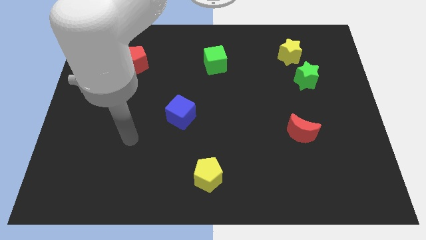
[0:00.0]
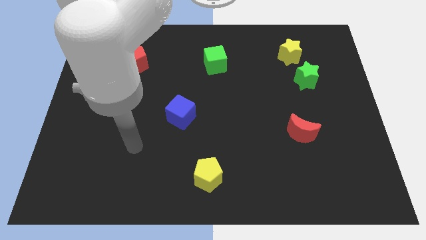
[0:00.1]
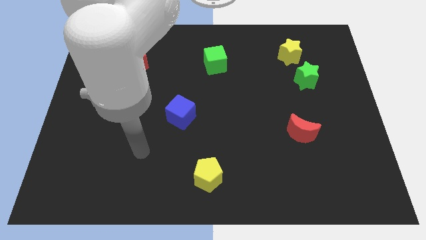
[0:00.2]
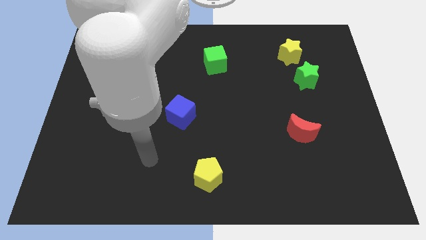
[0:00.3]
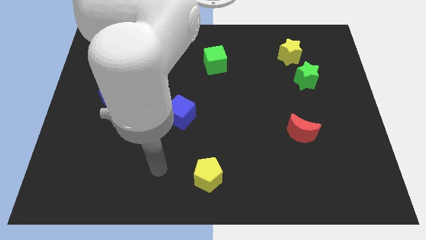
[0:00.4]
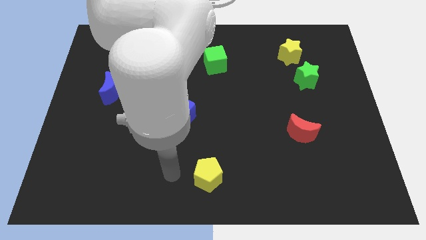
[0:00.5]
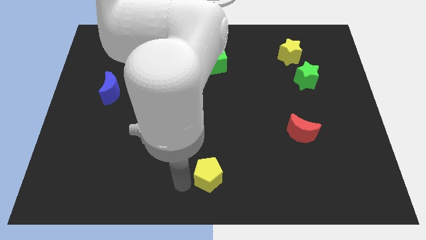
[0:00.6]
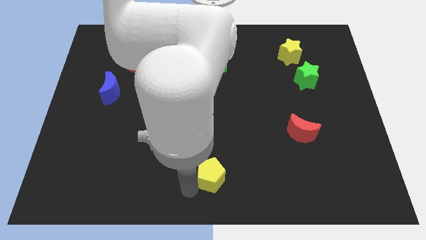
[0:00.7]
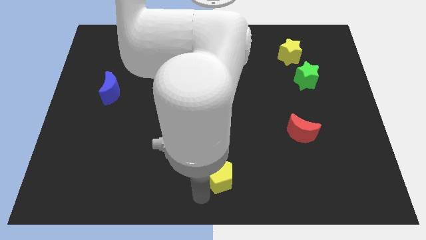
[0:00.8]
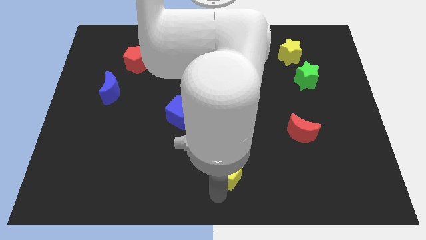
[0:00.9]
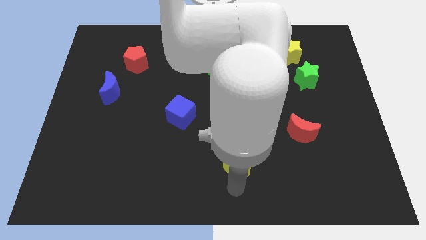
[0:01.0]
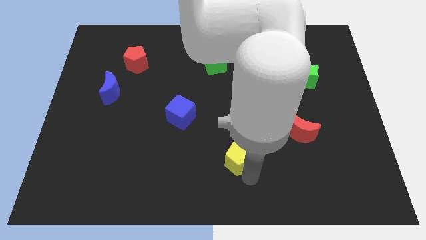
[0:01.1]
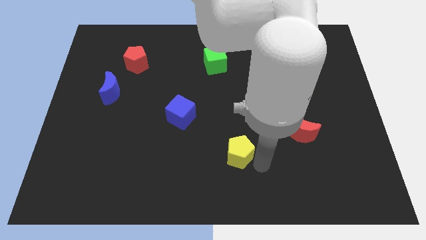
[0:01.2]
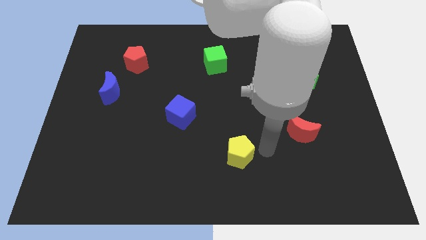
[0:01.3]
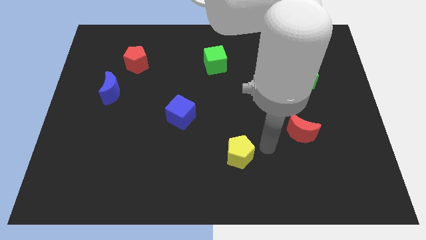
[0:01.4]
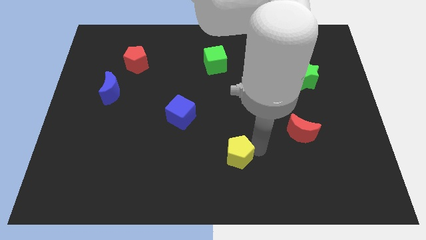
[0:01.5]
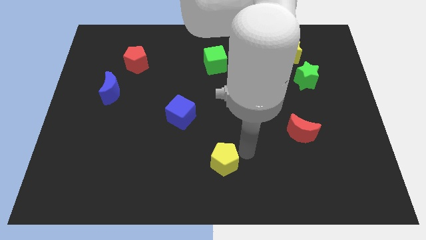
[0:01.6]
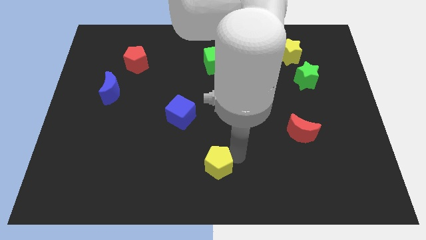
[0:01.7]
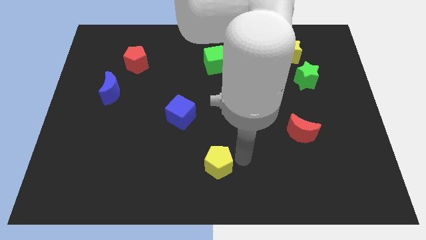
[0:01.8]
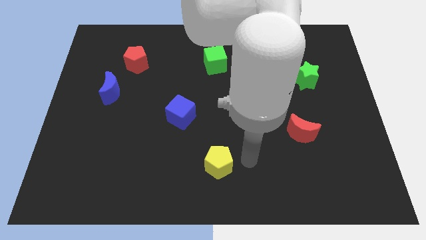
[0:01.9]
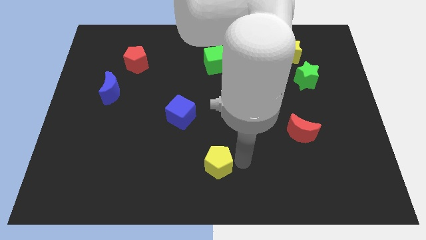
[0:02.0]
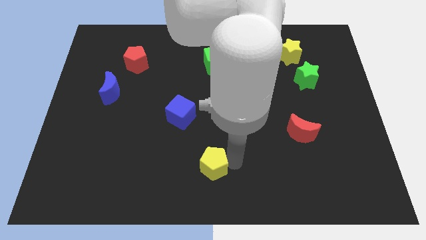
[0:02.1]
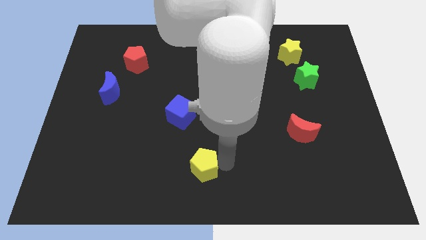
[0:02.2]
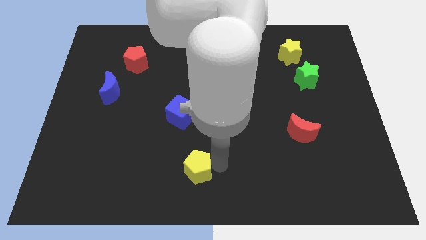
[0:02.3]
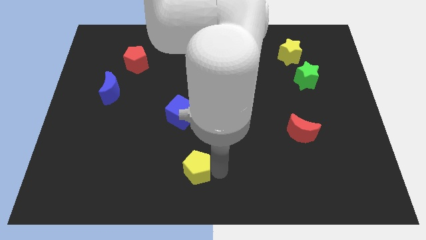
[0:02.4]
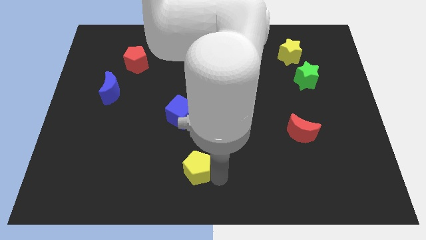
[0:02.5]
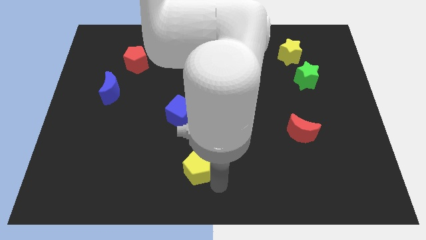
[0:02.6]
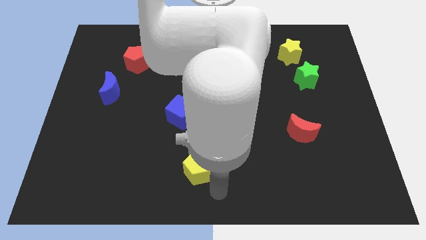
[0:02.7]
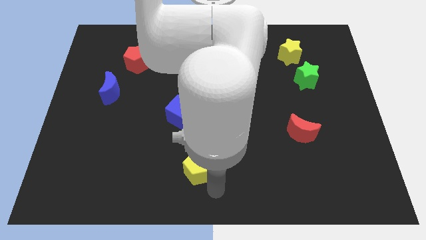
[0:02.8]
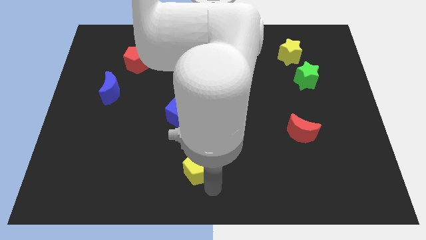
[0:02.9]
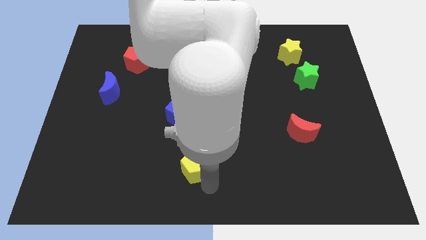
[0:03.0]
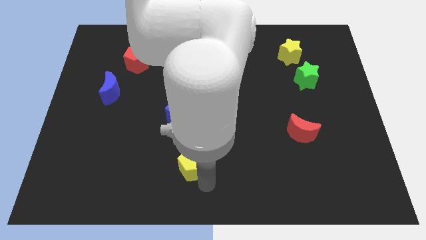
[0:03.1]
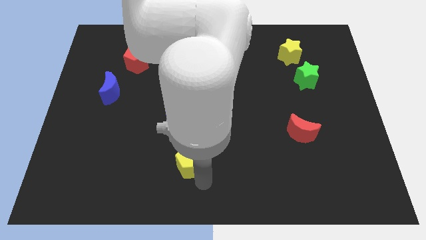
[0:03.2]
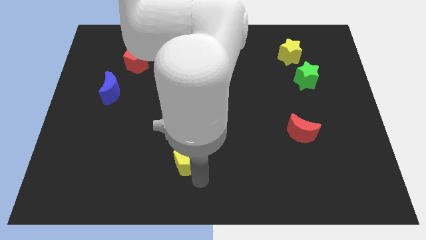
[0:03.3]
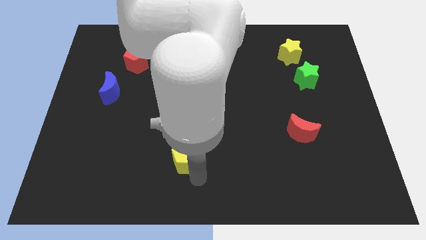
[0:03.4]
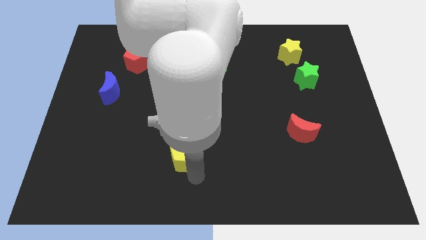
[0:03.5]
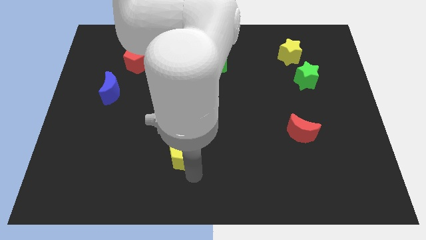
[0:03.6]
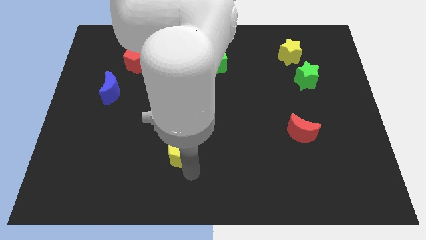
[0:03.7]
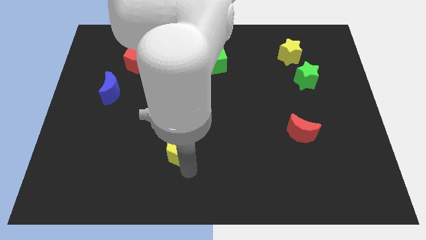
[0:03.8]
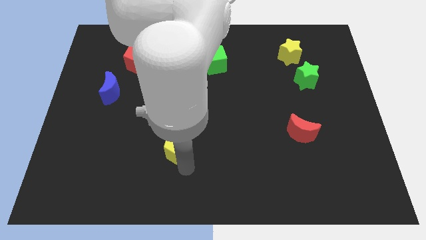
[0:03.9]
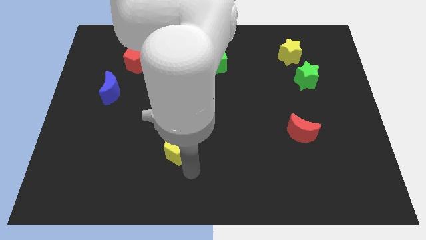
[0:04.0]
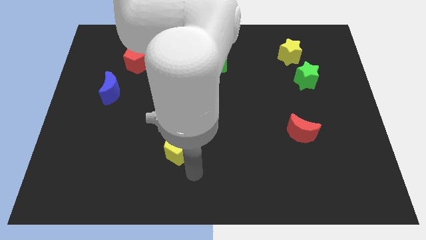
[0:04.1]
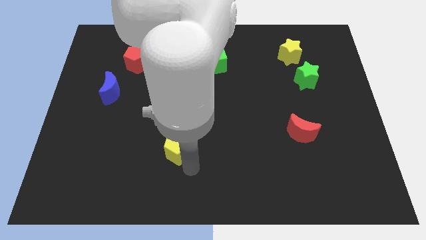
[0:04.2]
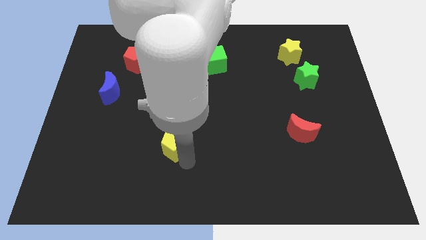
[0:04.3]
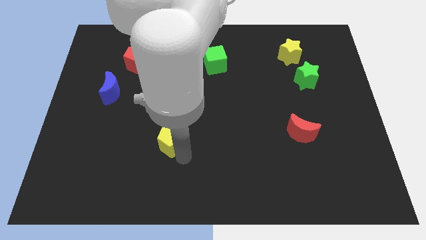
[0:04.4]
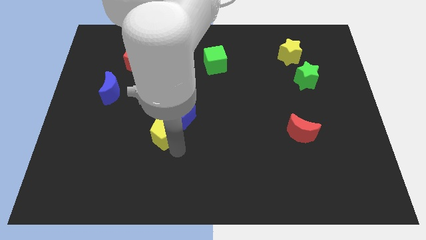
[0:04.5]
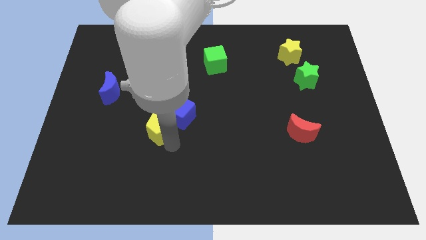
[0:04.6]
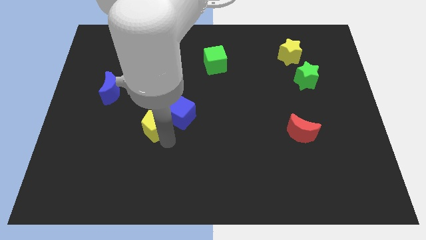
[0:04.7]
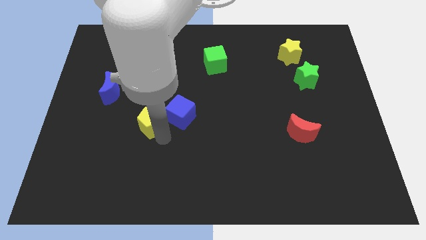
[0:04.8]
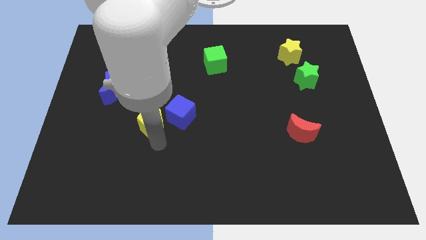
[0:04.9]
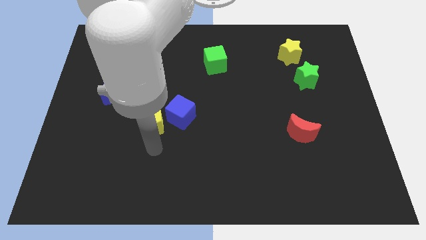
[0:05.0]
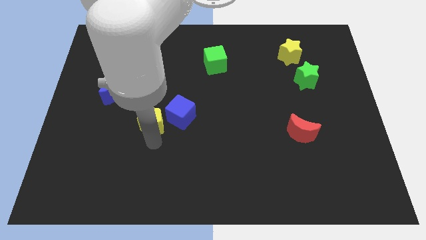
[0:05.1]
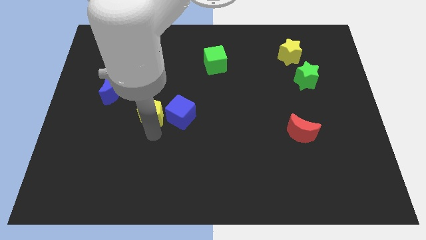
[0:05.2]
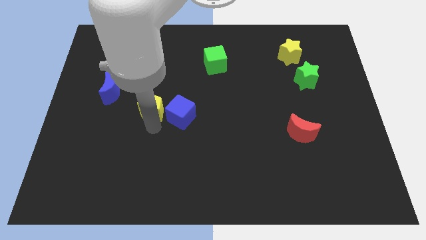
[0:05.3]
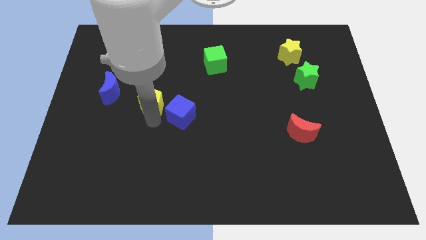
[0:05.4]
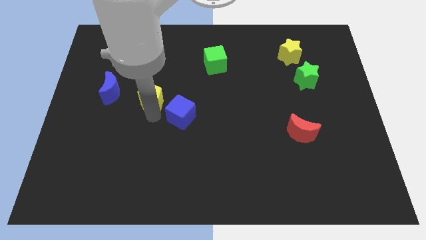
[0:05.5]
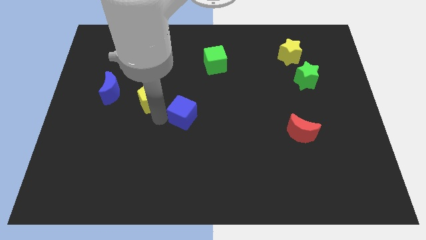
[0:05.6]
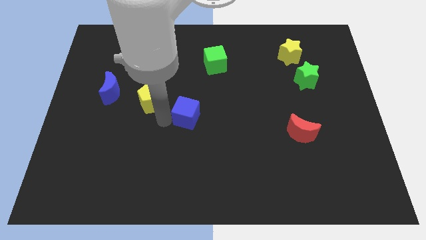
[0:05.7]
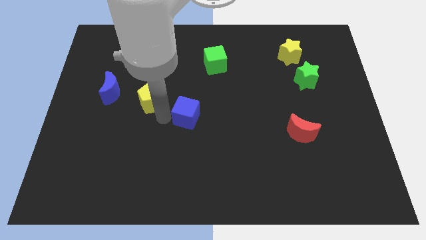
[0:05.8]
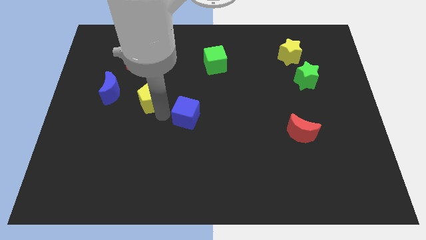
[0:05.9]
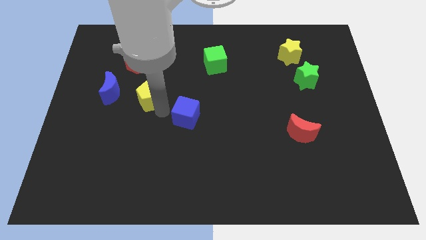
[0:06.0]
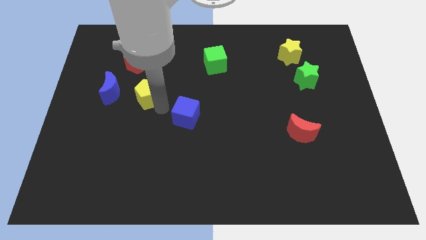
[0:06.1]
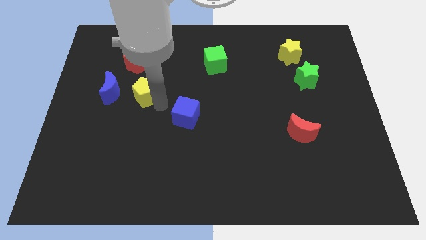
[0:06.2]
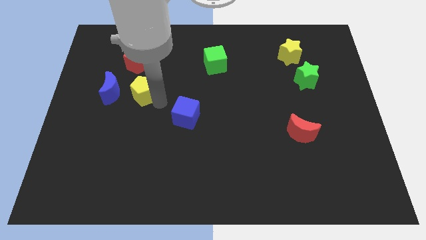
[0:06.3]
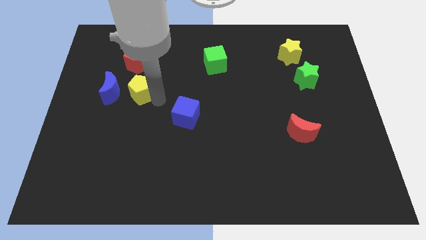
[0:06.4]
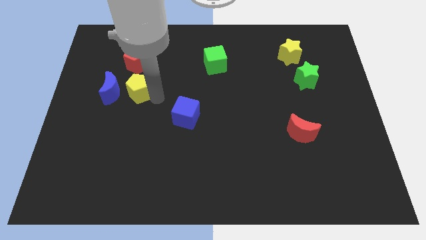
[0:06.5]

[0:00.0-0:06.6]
put the yellow pentagon diagonally up and to the right of the blue moon

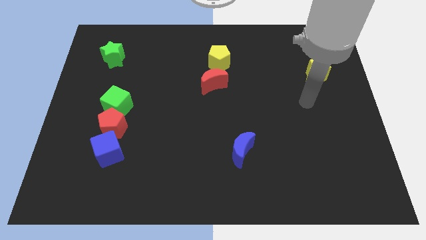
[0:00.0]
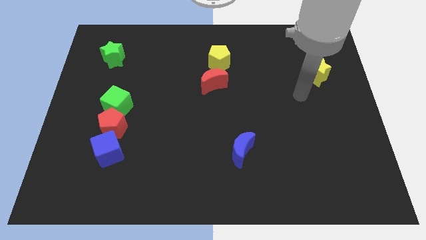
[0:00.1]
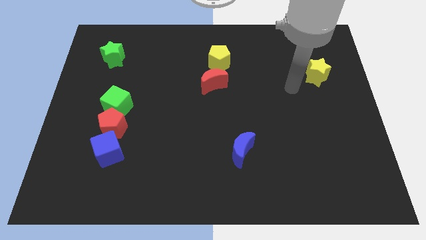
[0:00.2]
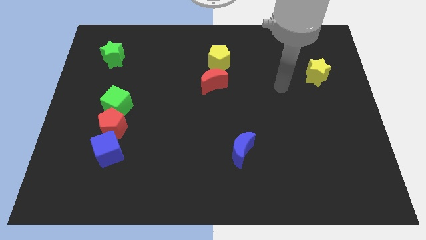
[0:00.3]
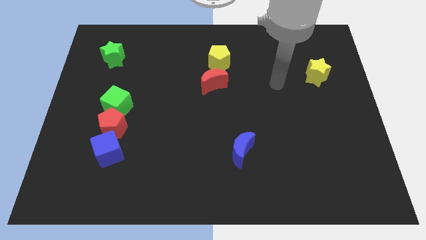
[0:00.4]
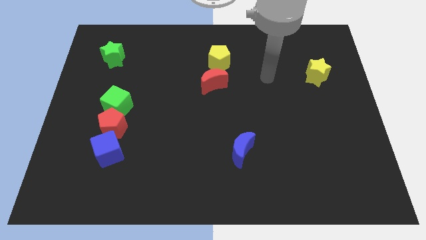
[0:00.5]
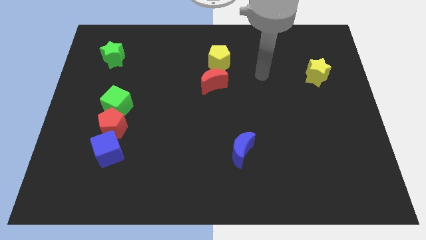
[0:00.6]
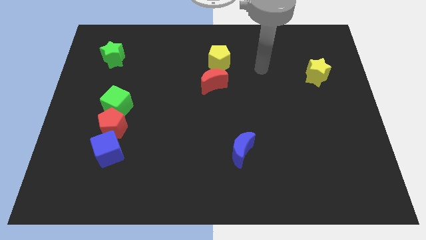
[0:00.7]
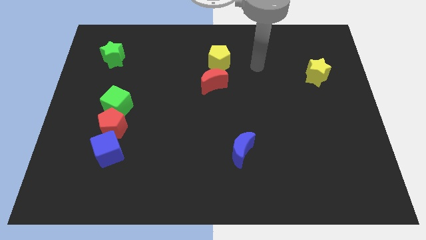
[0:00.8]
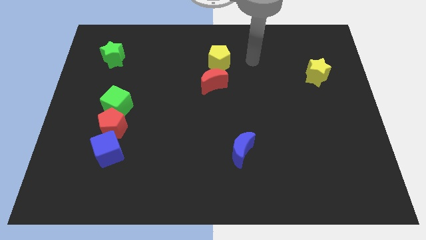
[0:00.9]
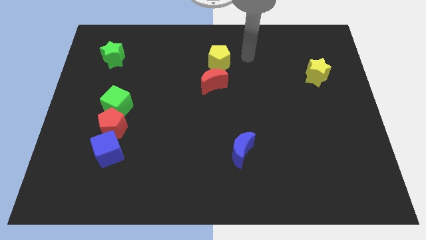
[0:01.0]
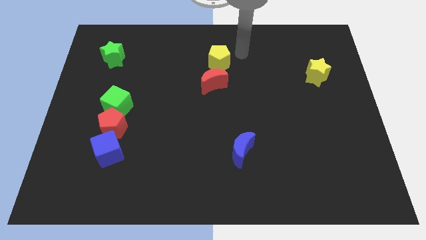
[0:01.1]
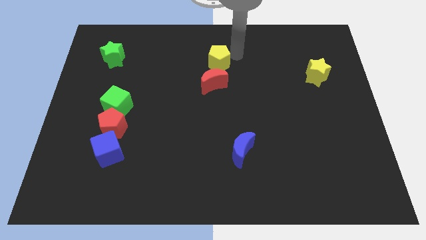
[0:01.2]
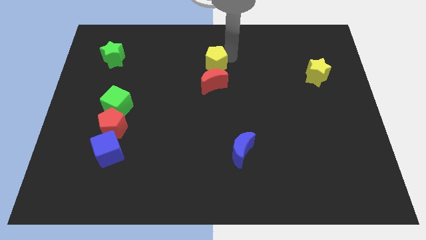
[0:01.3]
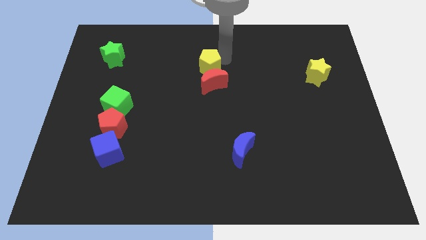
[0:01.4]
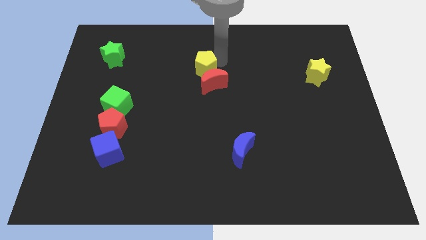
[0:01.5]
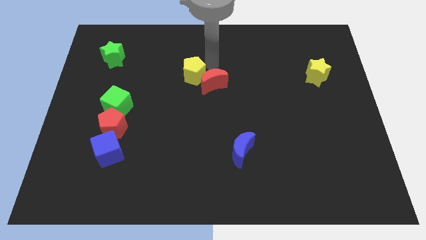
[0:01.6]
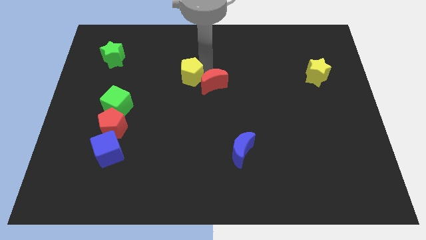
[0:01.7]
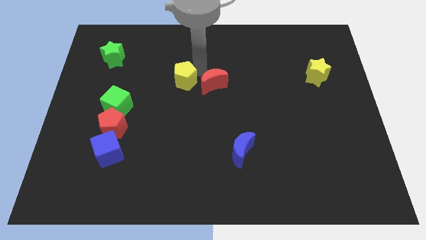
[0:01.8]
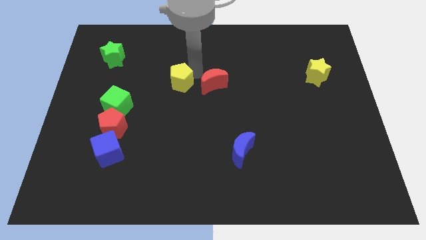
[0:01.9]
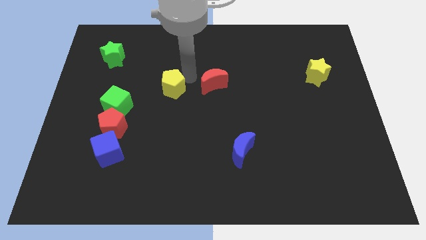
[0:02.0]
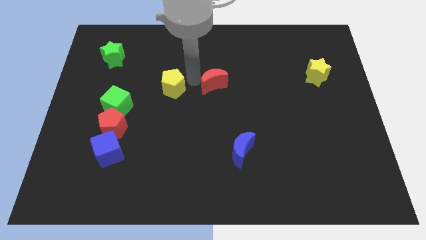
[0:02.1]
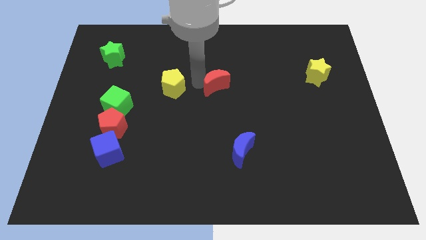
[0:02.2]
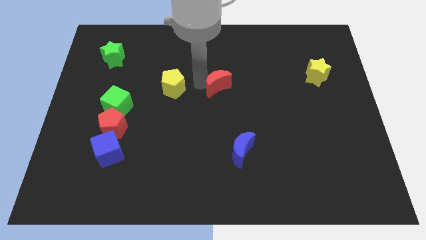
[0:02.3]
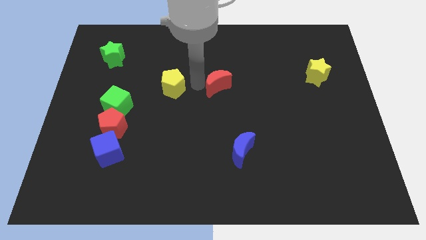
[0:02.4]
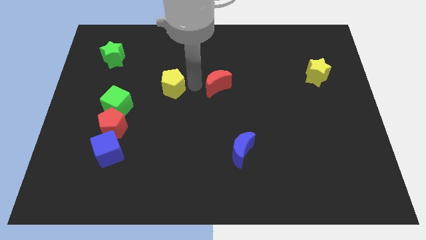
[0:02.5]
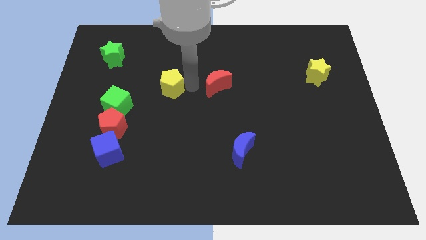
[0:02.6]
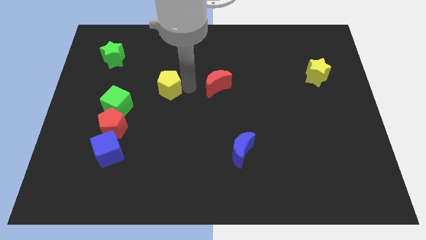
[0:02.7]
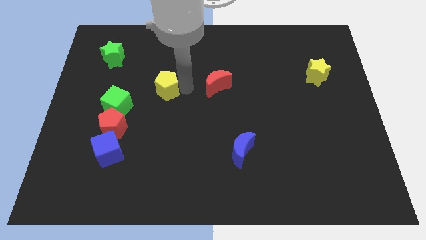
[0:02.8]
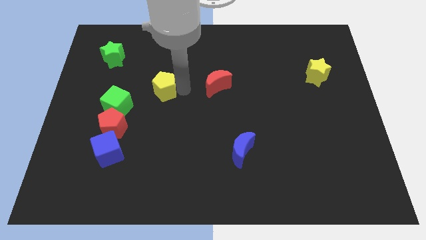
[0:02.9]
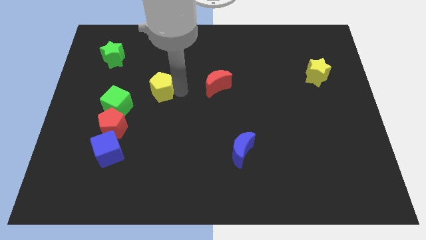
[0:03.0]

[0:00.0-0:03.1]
push the yellow pentagon to the top right side of the green cube
